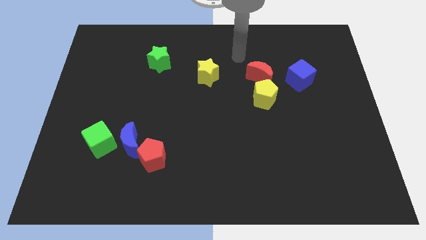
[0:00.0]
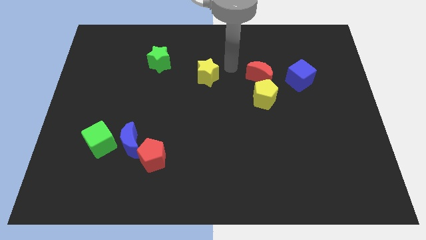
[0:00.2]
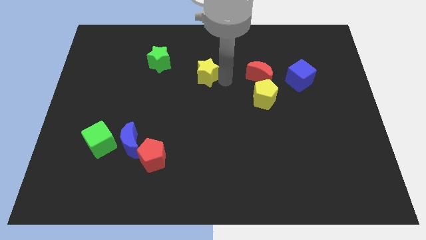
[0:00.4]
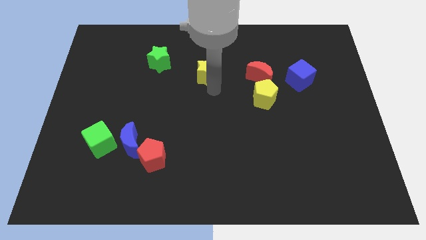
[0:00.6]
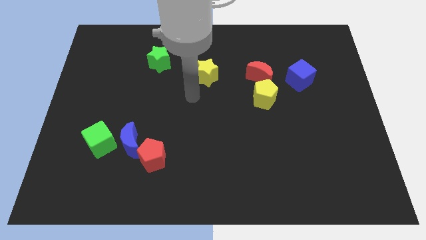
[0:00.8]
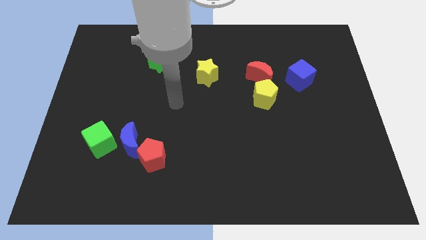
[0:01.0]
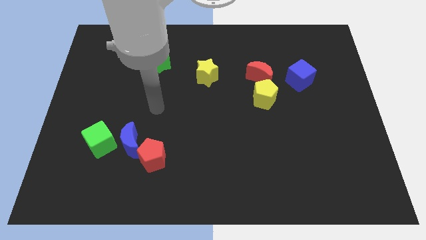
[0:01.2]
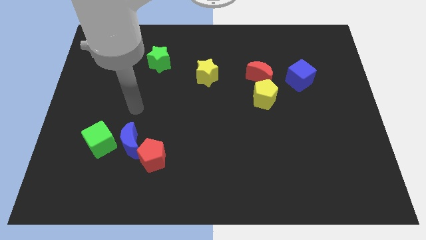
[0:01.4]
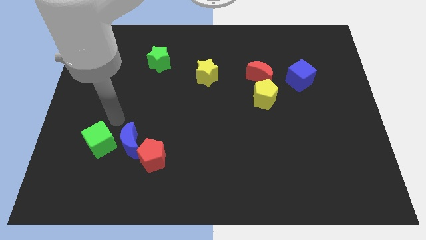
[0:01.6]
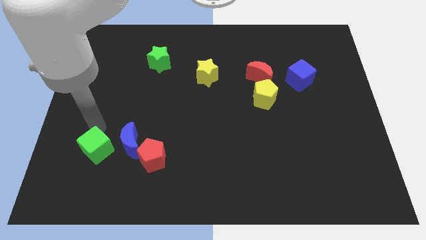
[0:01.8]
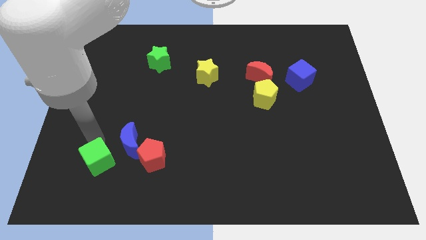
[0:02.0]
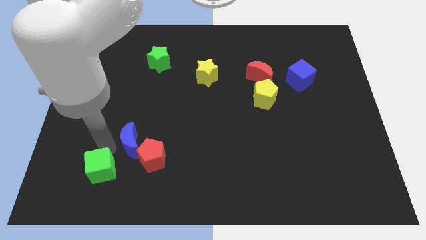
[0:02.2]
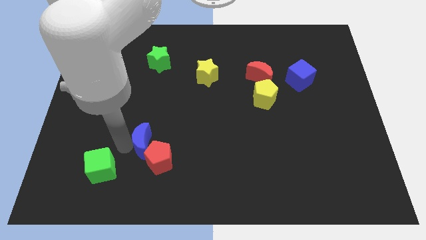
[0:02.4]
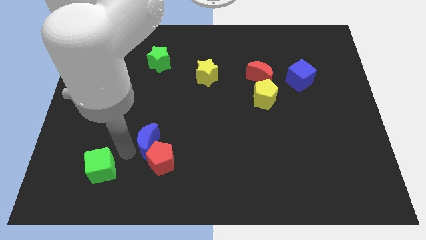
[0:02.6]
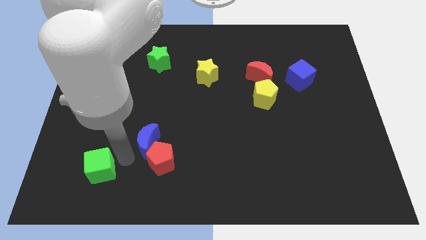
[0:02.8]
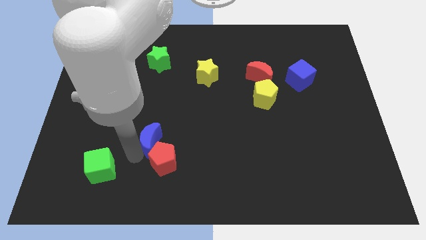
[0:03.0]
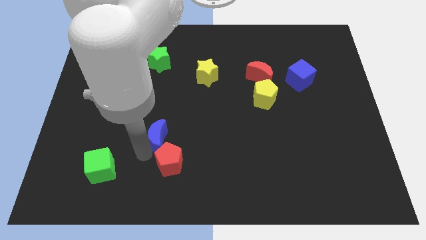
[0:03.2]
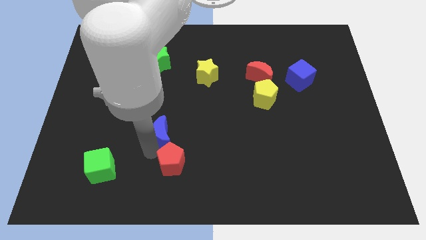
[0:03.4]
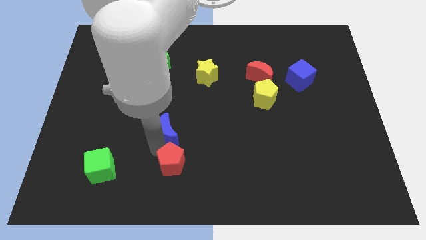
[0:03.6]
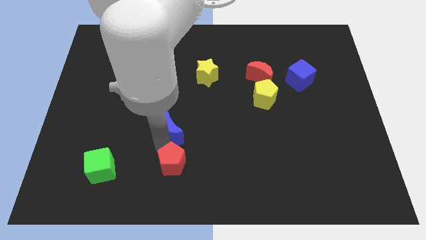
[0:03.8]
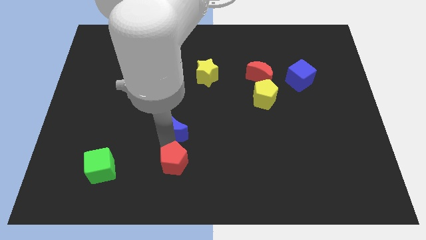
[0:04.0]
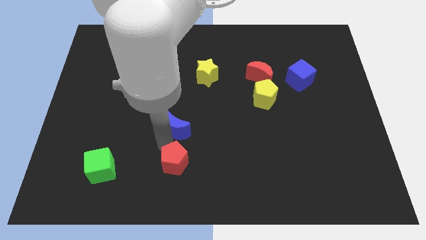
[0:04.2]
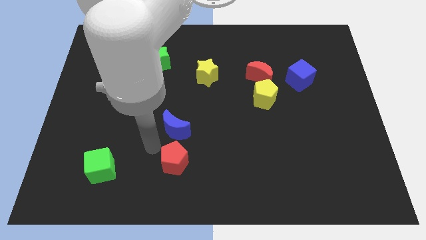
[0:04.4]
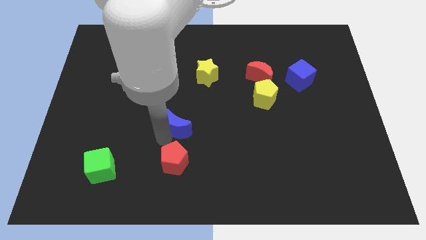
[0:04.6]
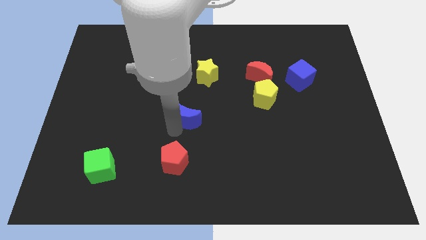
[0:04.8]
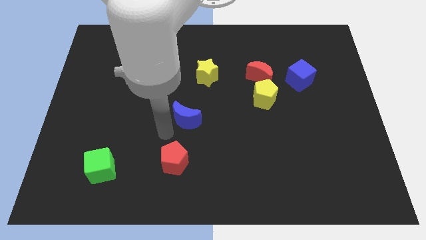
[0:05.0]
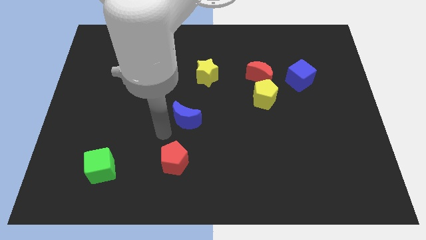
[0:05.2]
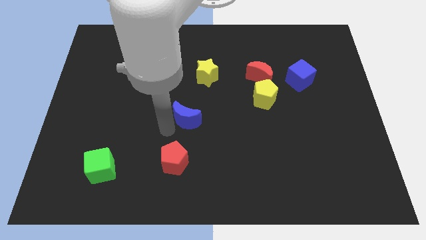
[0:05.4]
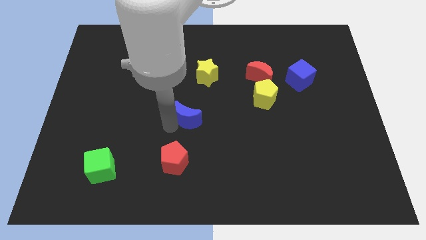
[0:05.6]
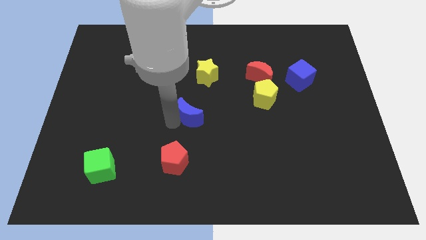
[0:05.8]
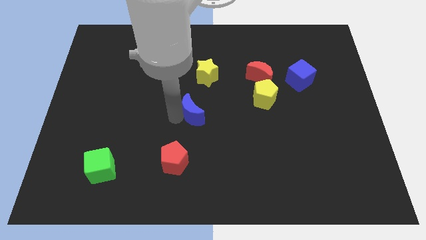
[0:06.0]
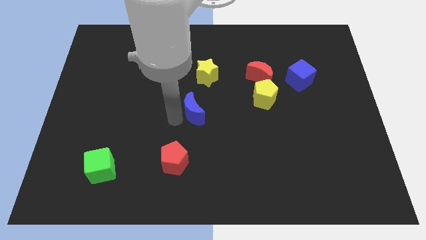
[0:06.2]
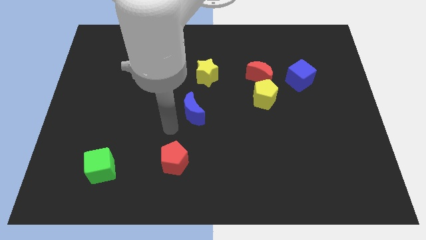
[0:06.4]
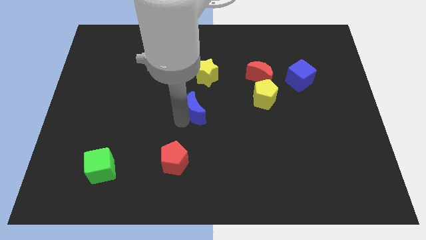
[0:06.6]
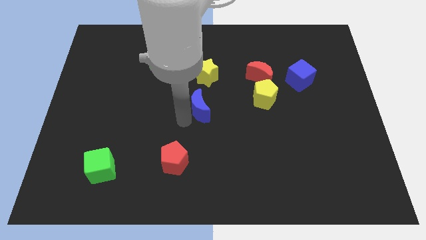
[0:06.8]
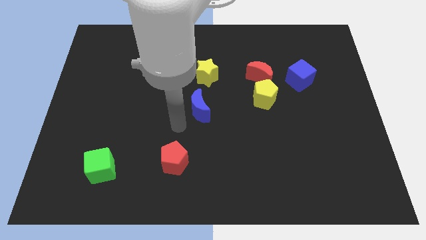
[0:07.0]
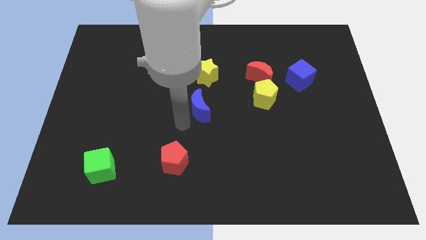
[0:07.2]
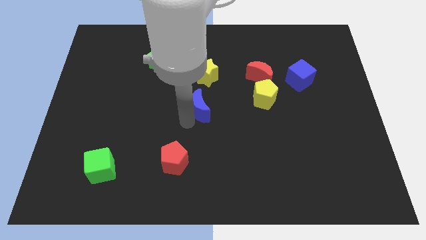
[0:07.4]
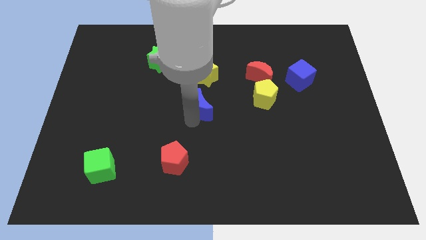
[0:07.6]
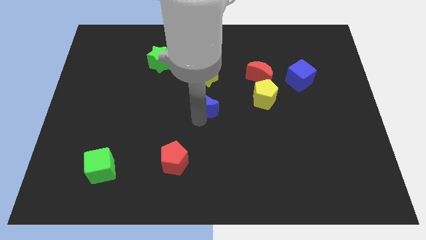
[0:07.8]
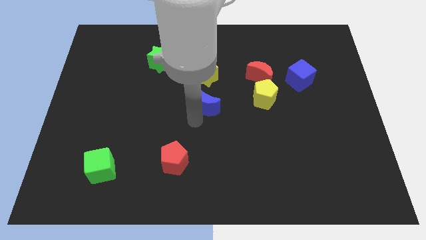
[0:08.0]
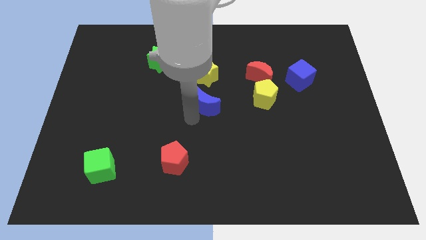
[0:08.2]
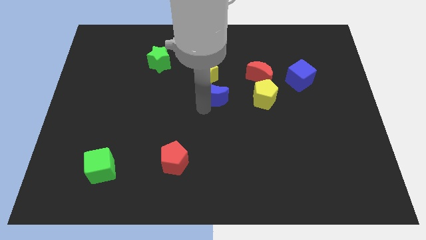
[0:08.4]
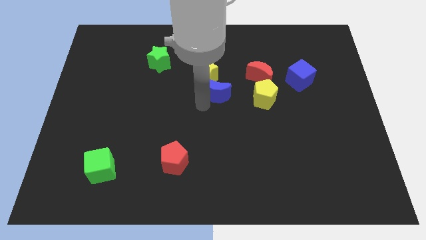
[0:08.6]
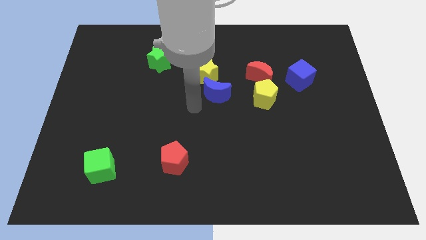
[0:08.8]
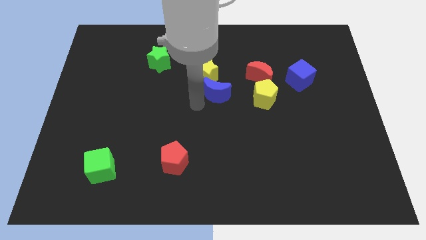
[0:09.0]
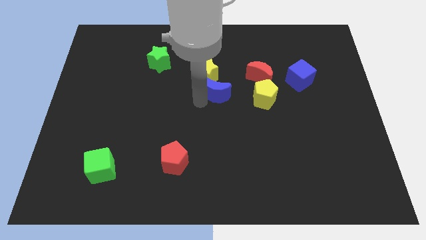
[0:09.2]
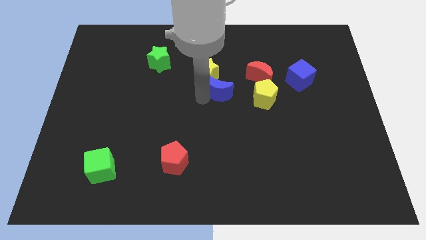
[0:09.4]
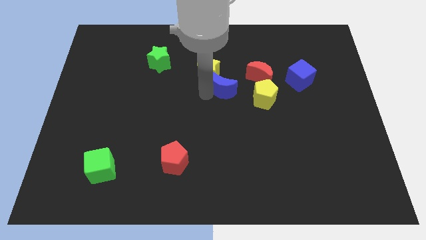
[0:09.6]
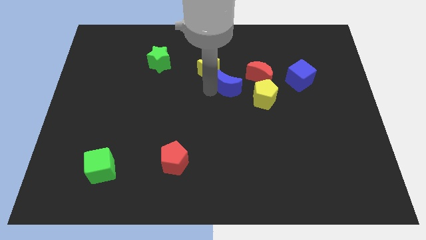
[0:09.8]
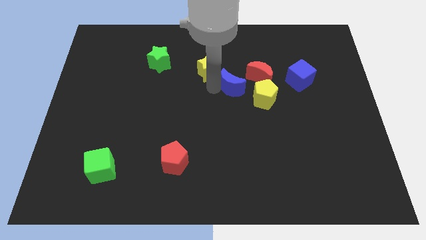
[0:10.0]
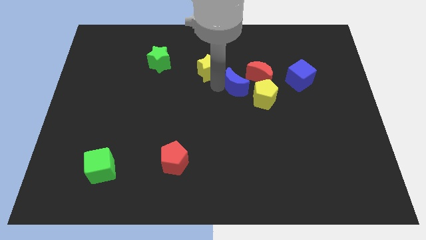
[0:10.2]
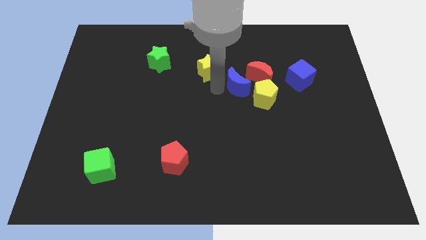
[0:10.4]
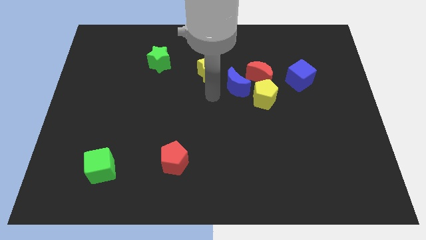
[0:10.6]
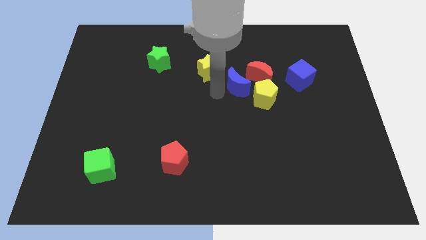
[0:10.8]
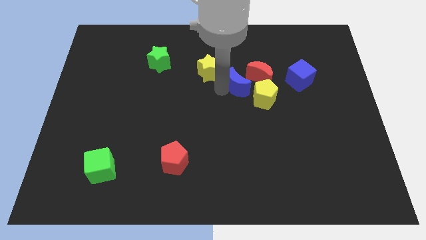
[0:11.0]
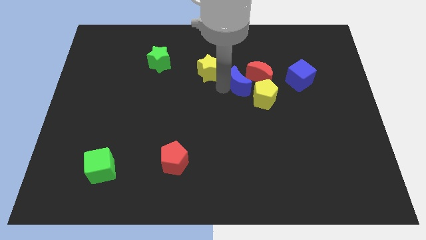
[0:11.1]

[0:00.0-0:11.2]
put the blue moon to the left of the blue cube

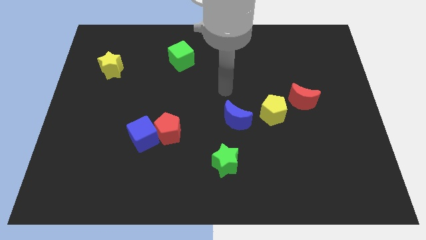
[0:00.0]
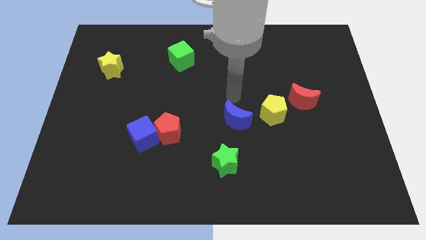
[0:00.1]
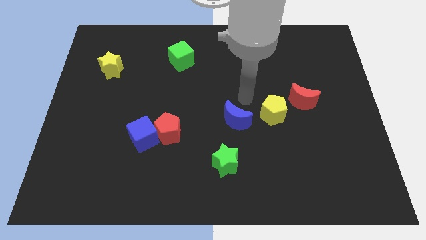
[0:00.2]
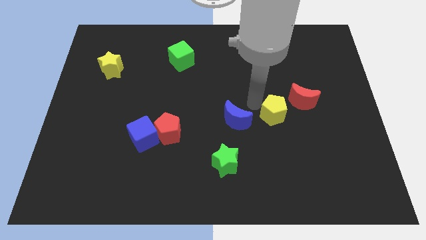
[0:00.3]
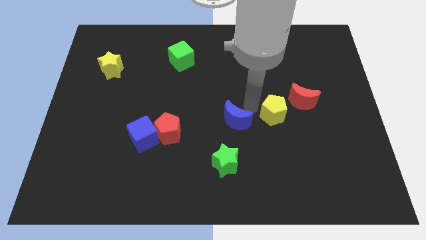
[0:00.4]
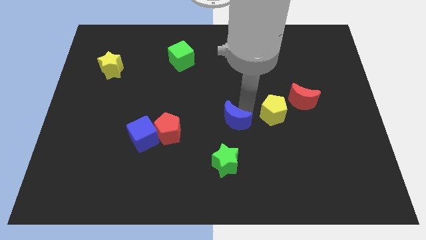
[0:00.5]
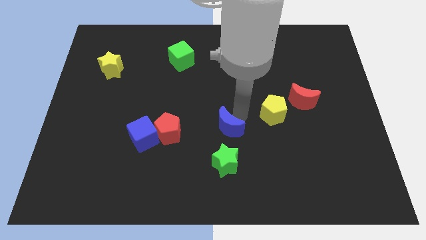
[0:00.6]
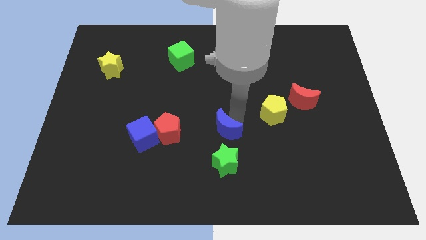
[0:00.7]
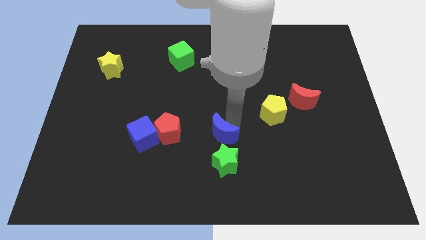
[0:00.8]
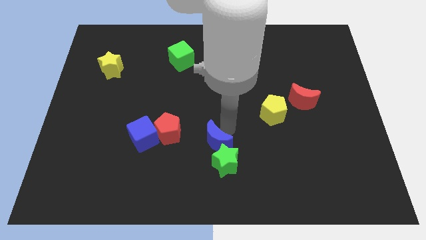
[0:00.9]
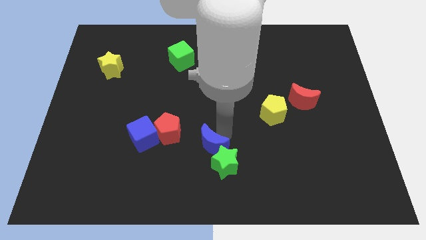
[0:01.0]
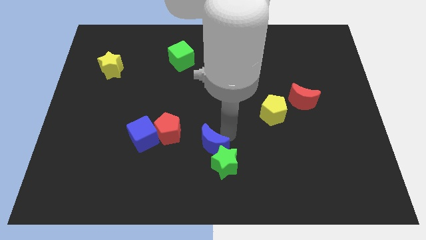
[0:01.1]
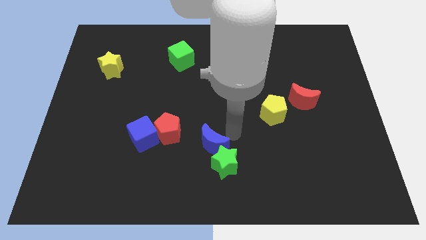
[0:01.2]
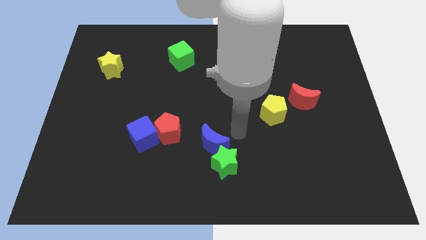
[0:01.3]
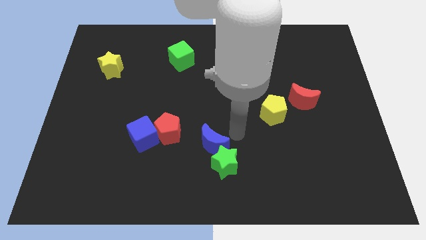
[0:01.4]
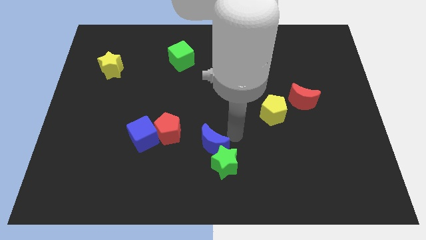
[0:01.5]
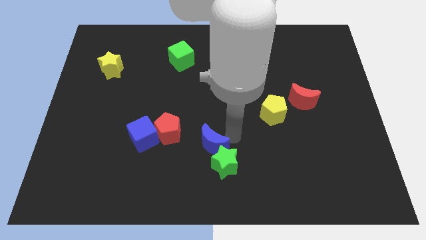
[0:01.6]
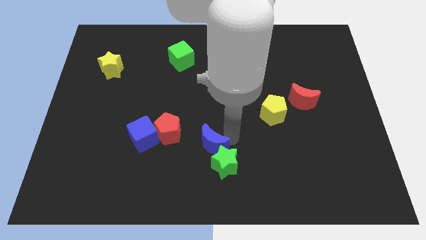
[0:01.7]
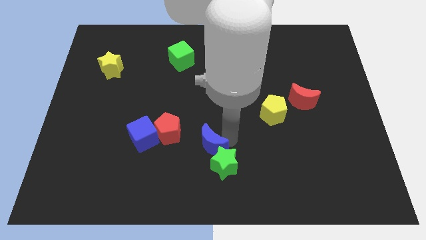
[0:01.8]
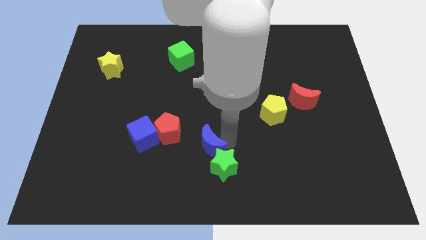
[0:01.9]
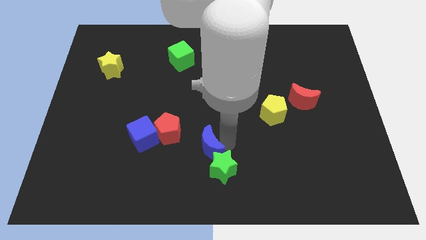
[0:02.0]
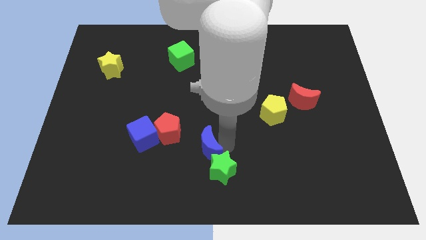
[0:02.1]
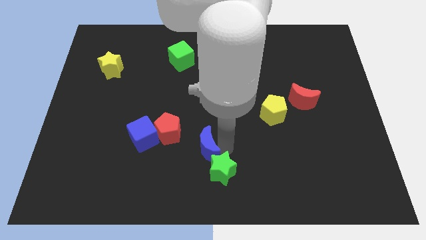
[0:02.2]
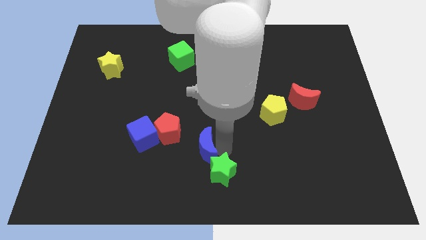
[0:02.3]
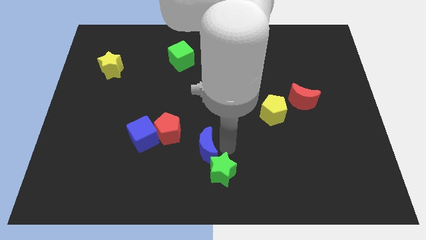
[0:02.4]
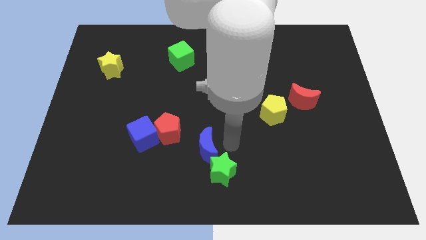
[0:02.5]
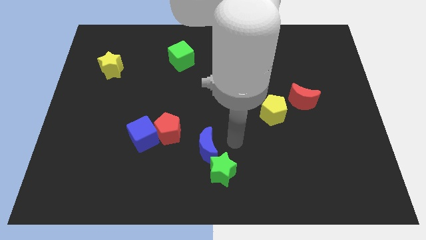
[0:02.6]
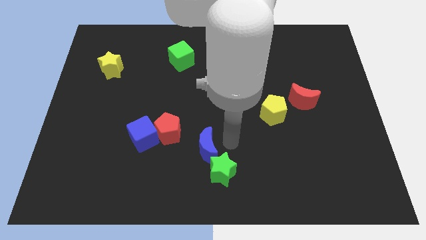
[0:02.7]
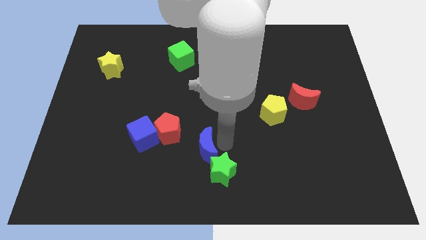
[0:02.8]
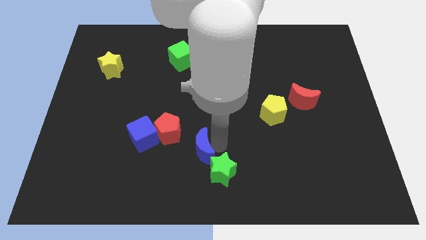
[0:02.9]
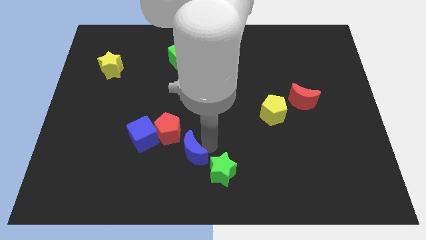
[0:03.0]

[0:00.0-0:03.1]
move the blue moon to the left side of the green star
